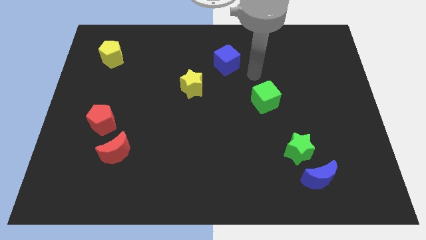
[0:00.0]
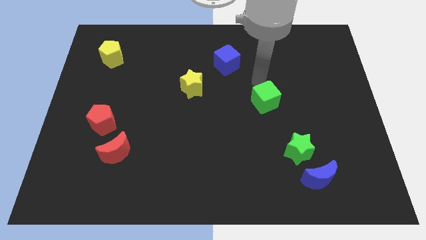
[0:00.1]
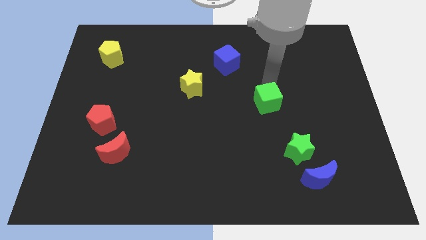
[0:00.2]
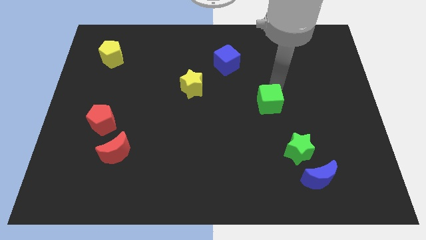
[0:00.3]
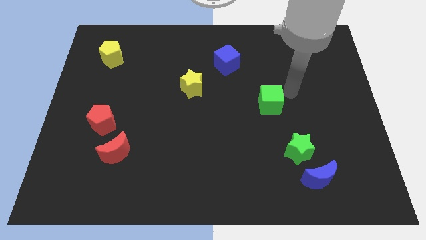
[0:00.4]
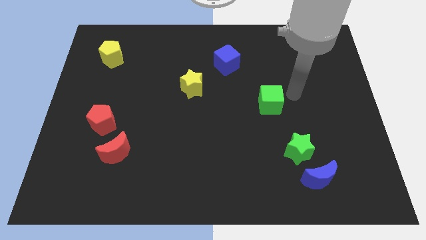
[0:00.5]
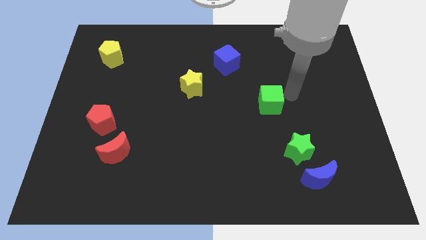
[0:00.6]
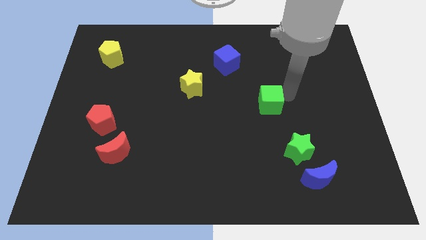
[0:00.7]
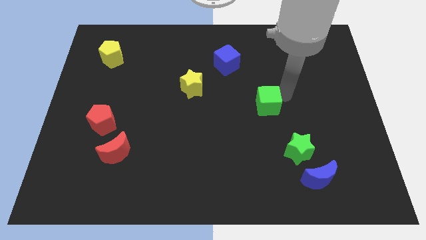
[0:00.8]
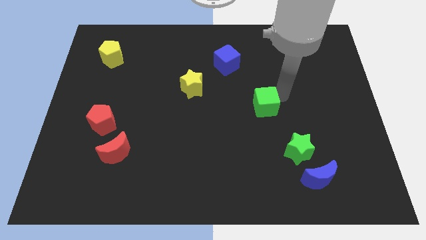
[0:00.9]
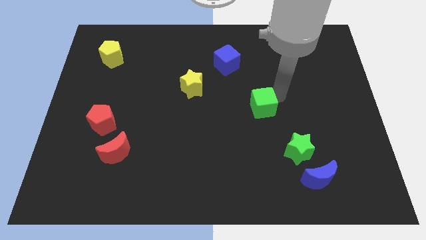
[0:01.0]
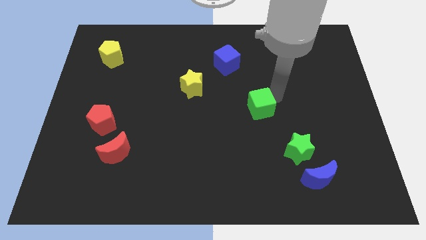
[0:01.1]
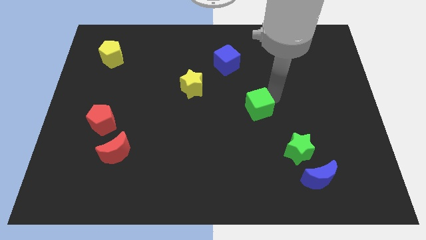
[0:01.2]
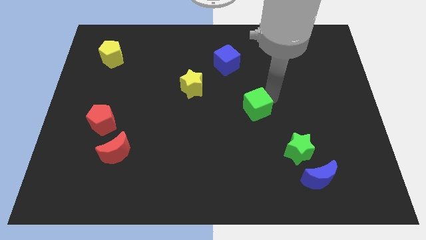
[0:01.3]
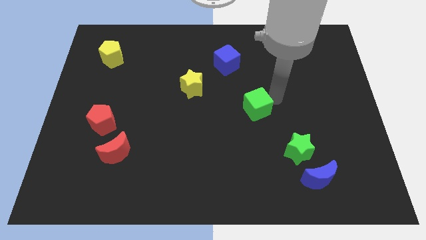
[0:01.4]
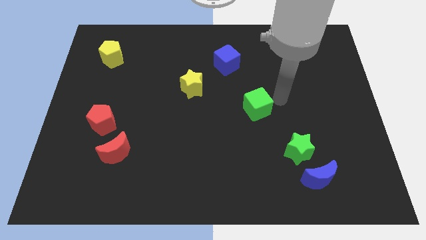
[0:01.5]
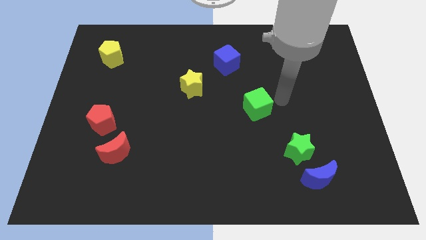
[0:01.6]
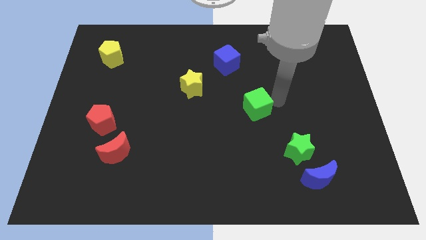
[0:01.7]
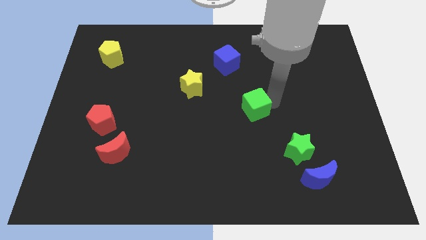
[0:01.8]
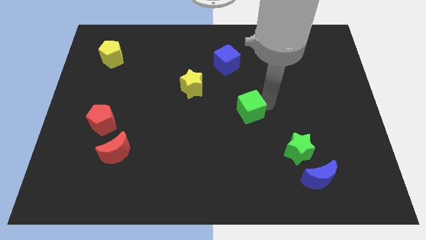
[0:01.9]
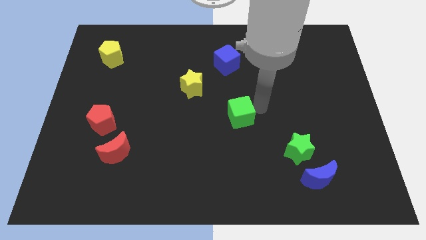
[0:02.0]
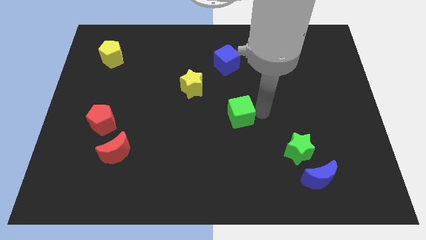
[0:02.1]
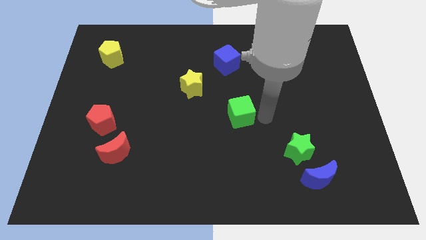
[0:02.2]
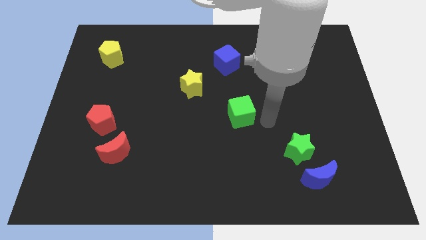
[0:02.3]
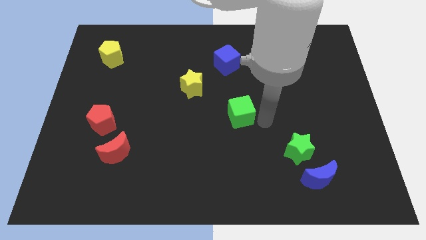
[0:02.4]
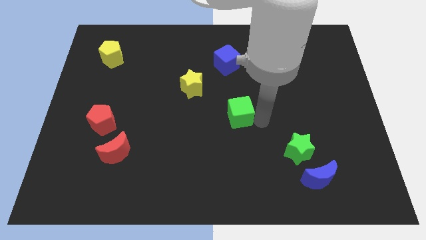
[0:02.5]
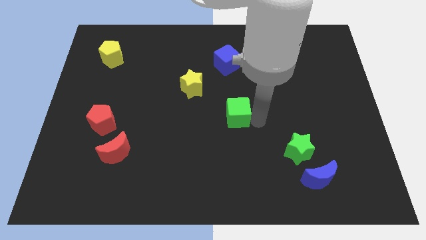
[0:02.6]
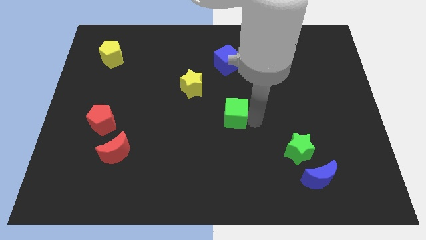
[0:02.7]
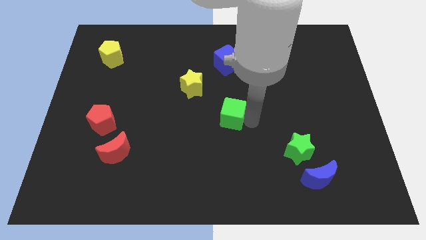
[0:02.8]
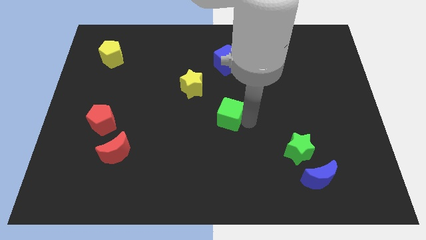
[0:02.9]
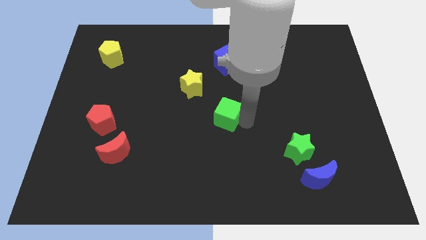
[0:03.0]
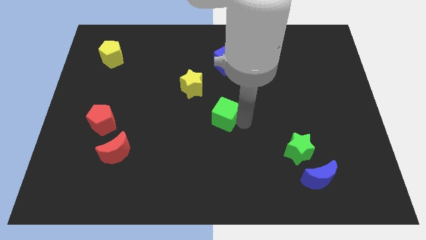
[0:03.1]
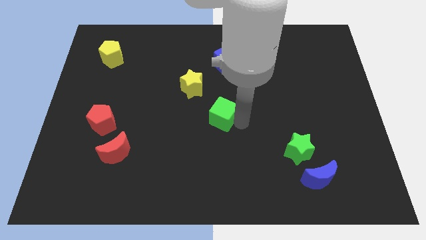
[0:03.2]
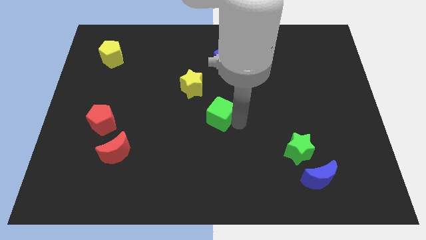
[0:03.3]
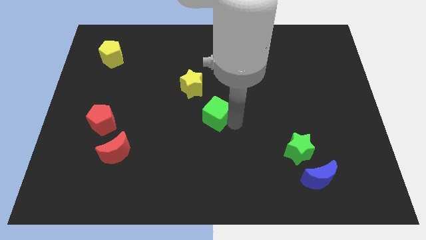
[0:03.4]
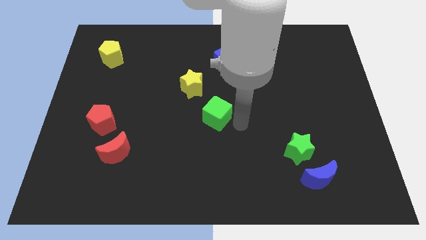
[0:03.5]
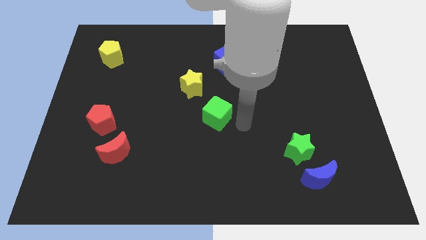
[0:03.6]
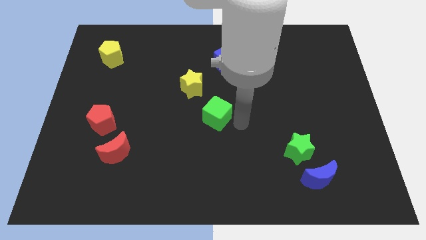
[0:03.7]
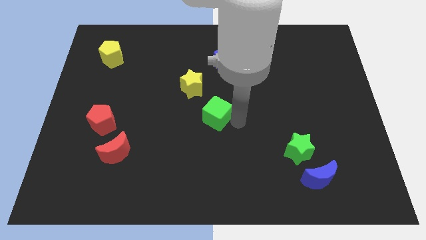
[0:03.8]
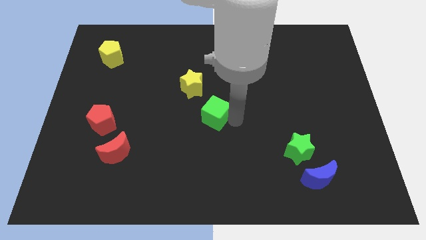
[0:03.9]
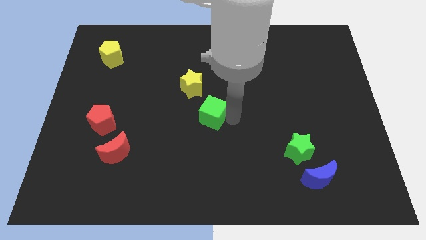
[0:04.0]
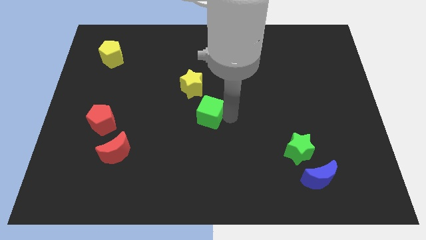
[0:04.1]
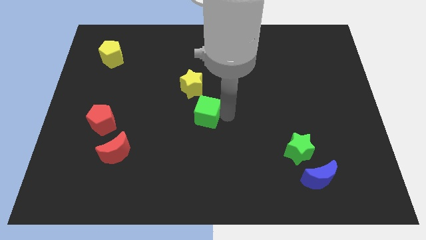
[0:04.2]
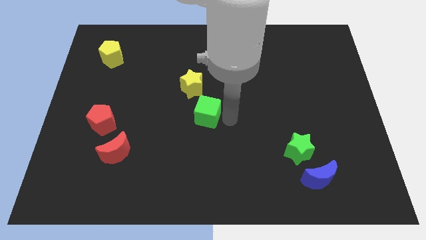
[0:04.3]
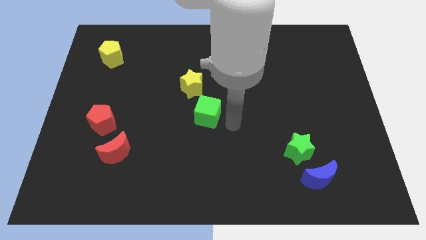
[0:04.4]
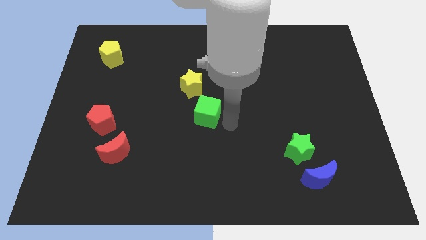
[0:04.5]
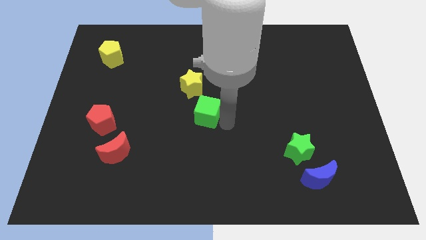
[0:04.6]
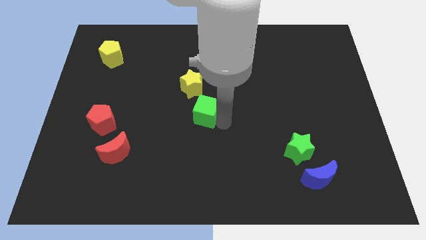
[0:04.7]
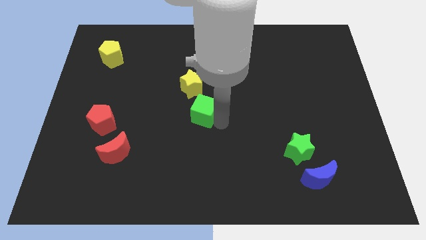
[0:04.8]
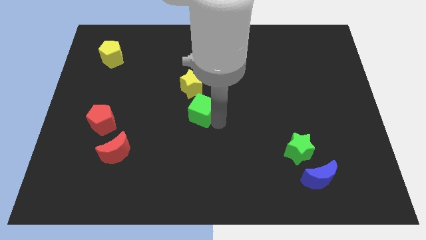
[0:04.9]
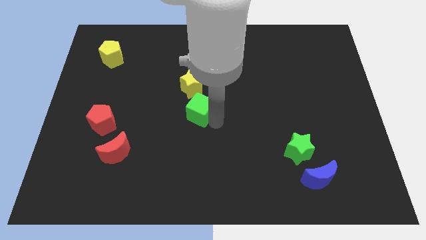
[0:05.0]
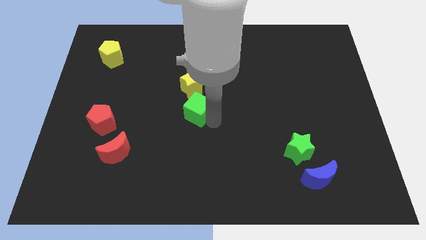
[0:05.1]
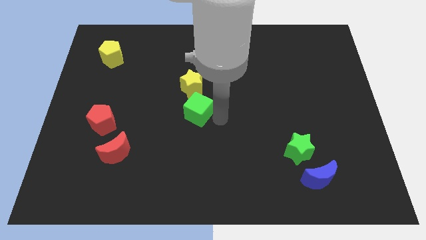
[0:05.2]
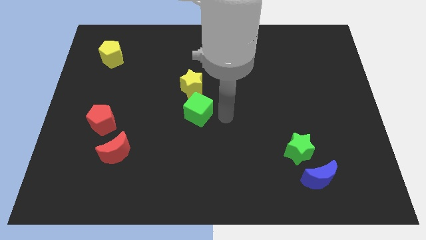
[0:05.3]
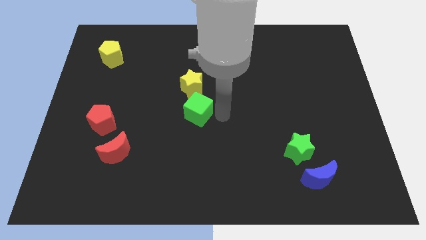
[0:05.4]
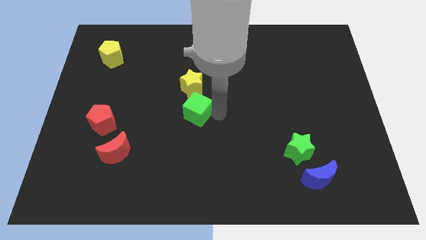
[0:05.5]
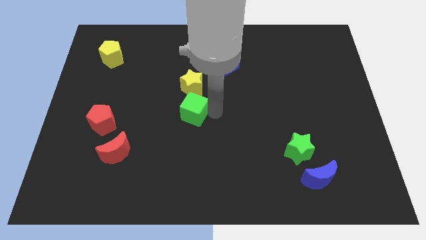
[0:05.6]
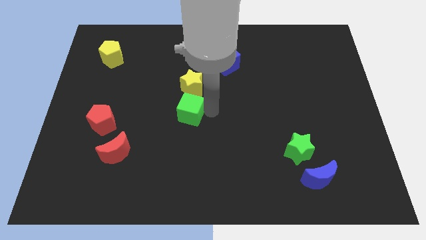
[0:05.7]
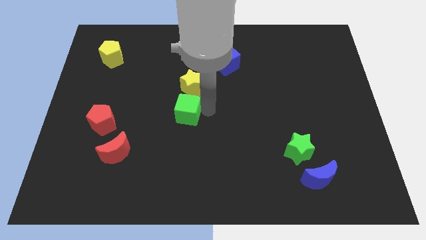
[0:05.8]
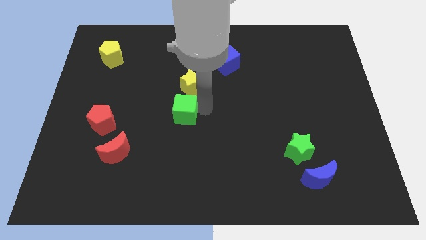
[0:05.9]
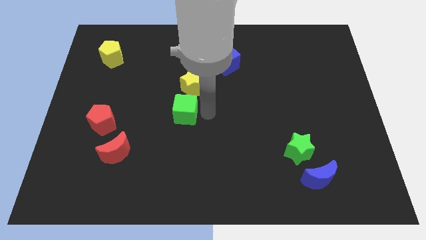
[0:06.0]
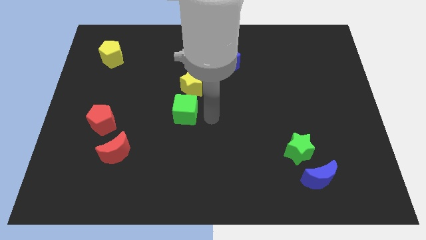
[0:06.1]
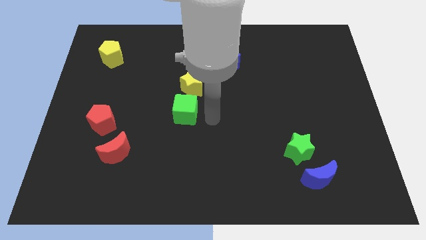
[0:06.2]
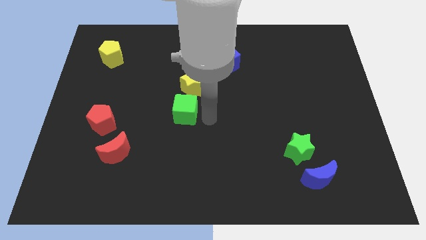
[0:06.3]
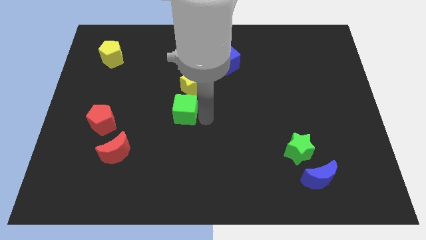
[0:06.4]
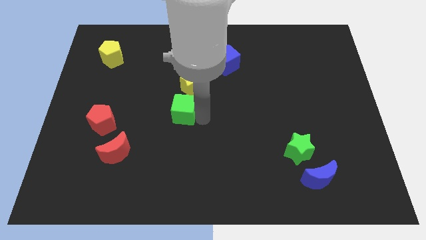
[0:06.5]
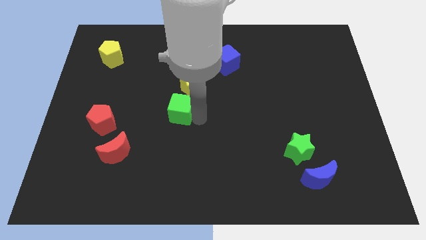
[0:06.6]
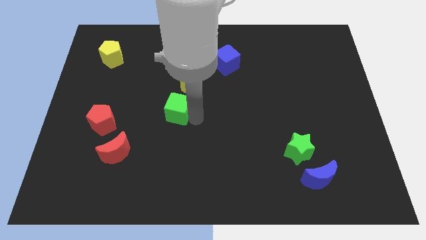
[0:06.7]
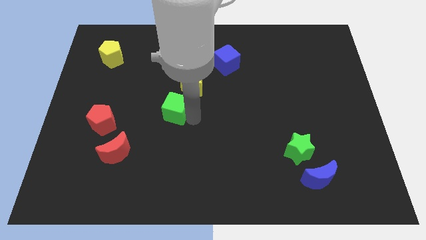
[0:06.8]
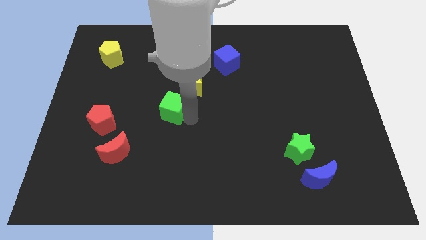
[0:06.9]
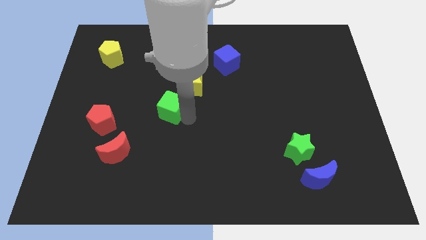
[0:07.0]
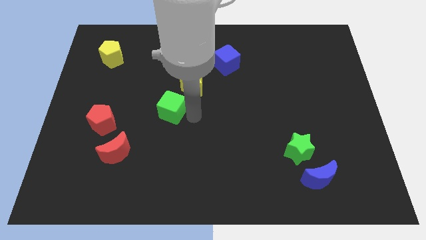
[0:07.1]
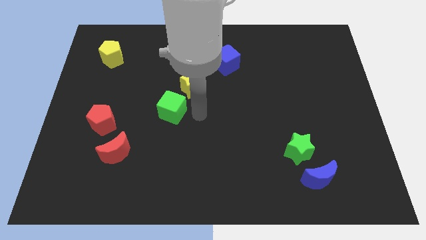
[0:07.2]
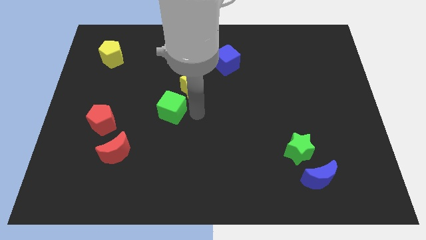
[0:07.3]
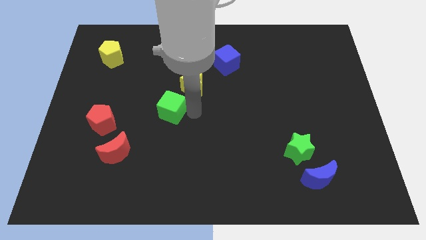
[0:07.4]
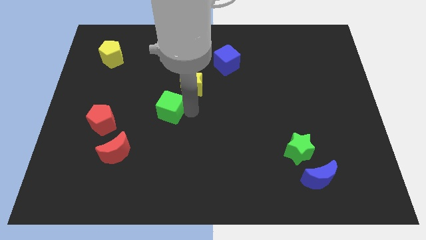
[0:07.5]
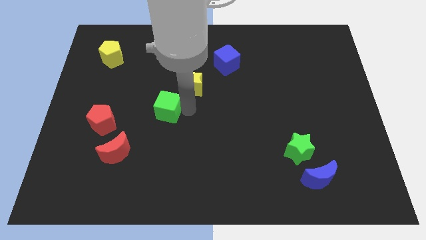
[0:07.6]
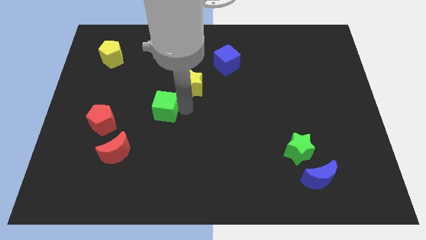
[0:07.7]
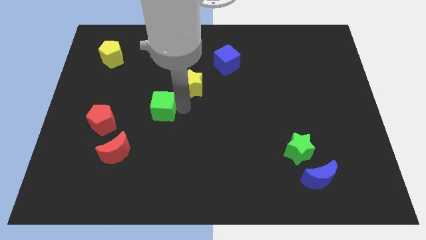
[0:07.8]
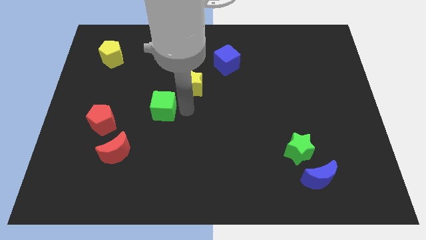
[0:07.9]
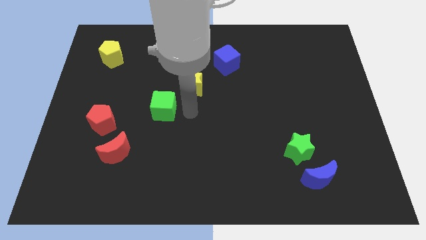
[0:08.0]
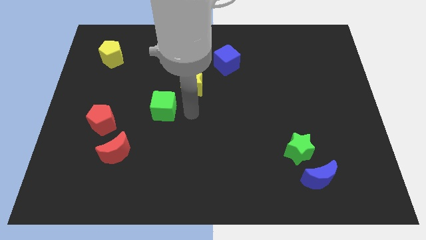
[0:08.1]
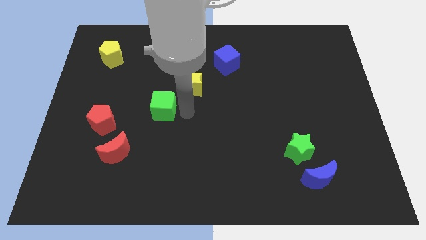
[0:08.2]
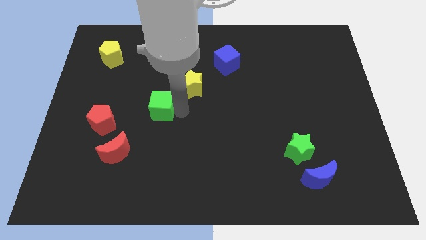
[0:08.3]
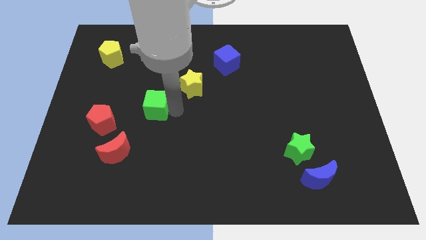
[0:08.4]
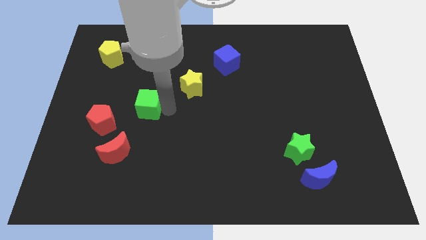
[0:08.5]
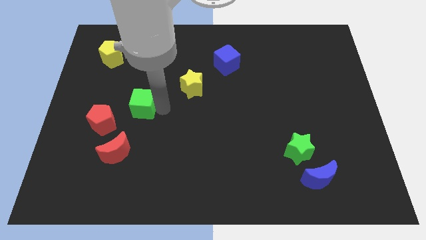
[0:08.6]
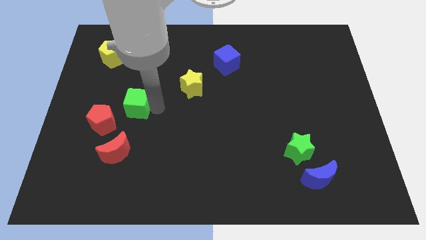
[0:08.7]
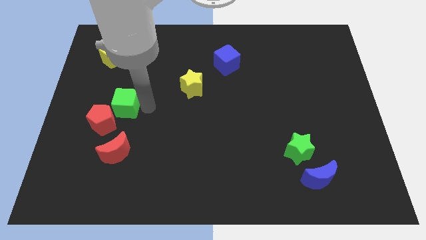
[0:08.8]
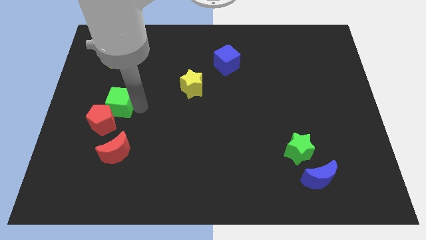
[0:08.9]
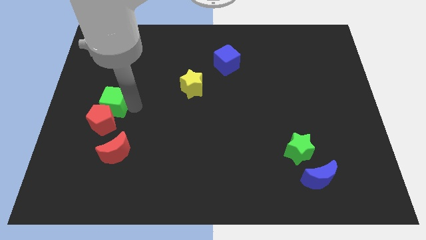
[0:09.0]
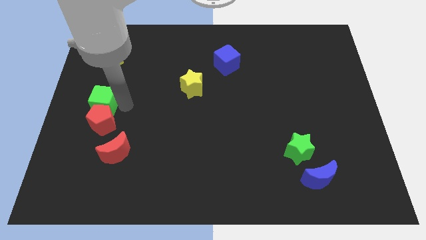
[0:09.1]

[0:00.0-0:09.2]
put the green cube to the center left
